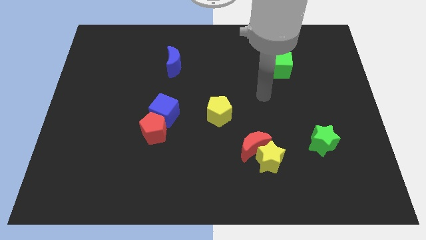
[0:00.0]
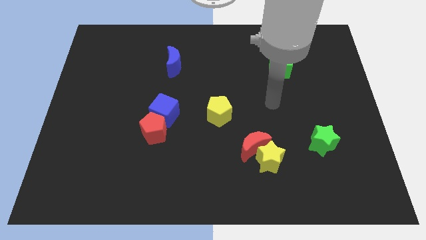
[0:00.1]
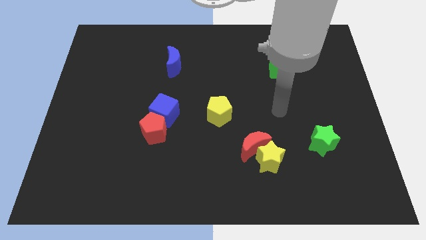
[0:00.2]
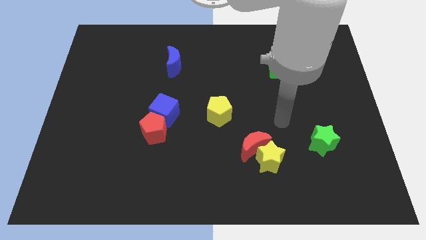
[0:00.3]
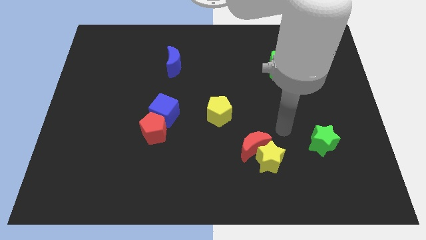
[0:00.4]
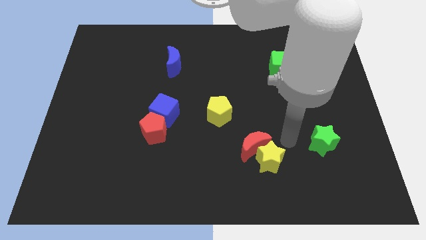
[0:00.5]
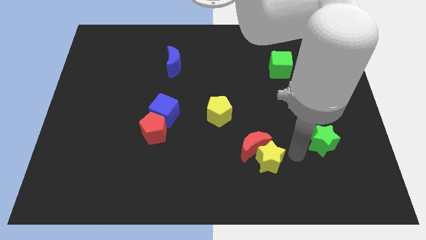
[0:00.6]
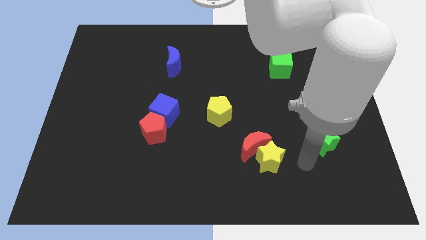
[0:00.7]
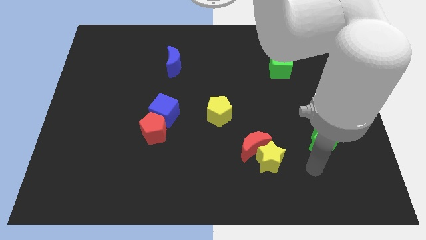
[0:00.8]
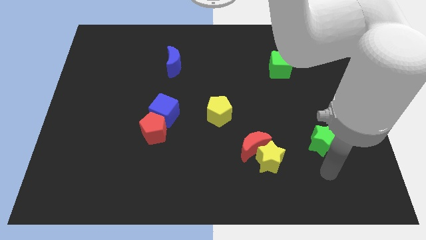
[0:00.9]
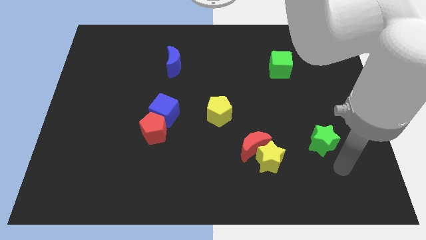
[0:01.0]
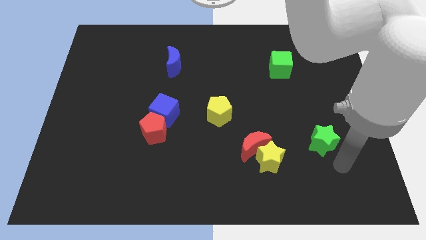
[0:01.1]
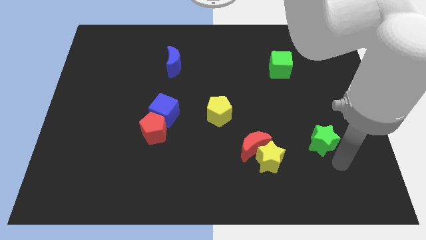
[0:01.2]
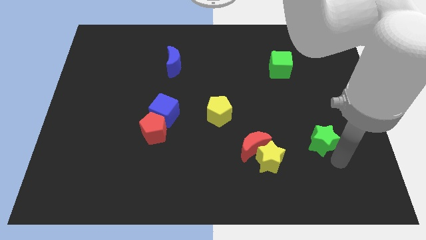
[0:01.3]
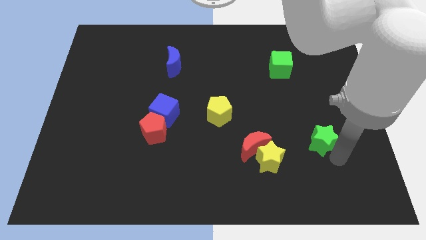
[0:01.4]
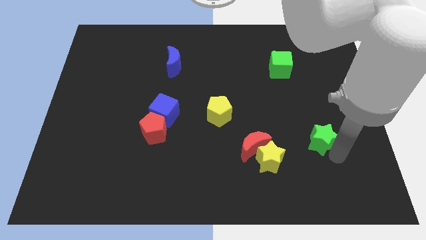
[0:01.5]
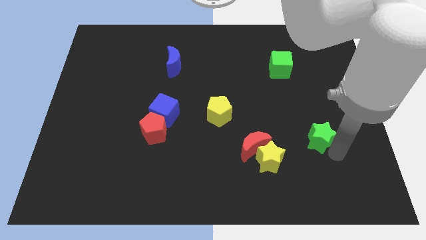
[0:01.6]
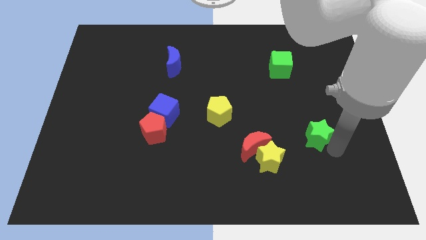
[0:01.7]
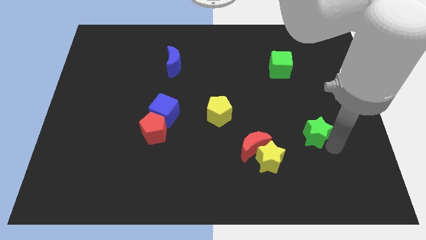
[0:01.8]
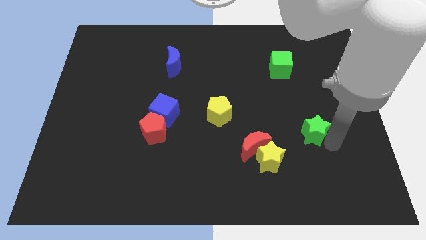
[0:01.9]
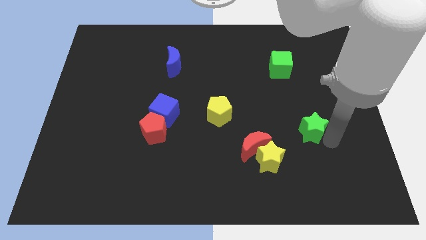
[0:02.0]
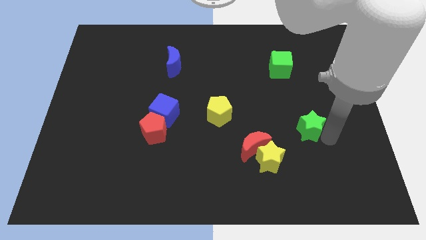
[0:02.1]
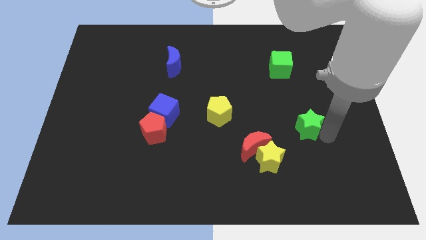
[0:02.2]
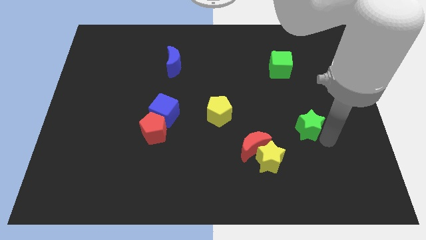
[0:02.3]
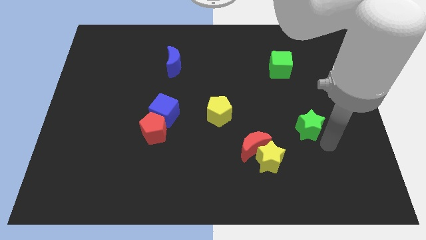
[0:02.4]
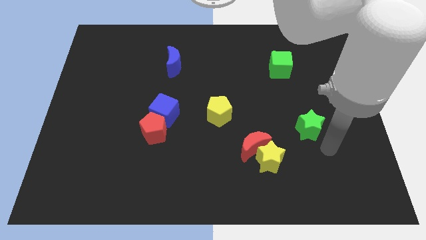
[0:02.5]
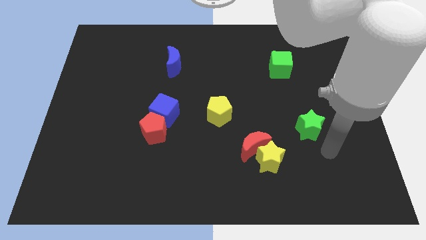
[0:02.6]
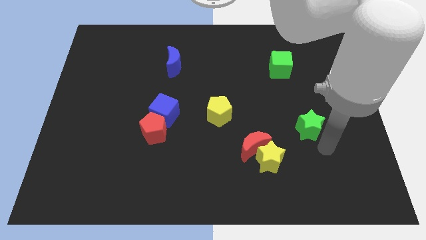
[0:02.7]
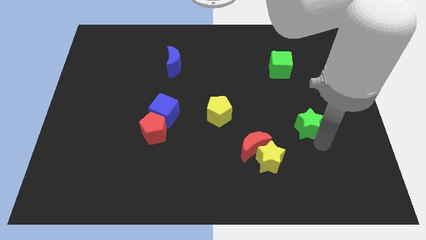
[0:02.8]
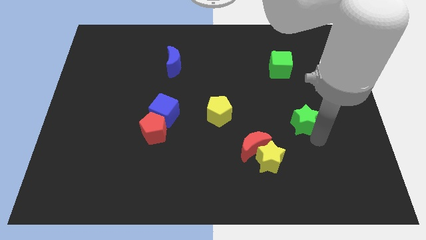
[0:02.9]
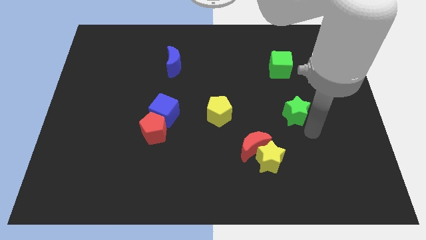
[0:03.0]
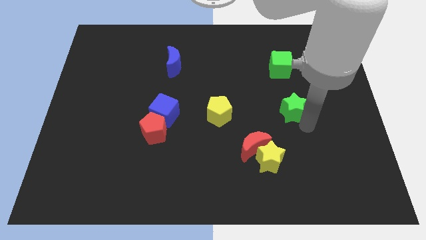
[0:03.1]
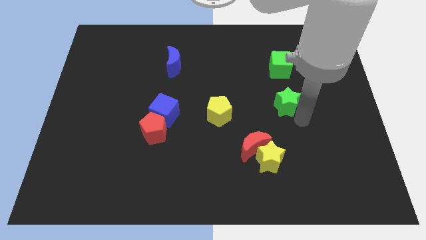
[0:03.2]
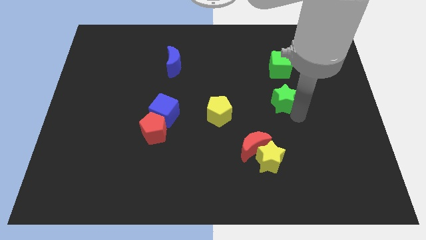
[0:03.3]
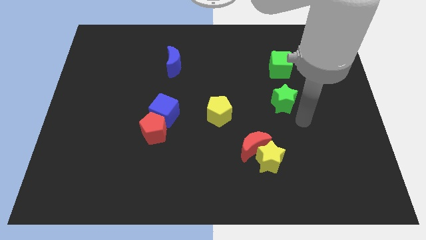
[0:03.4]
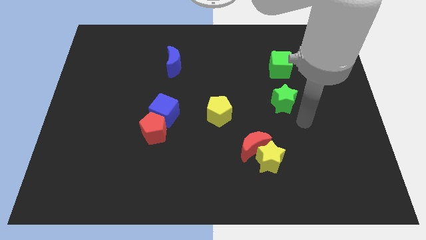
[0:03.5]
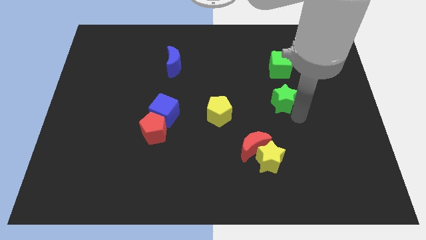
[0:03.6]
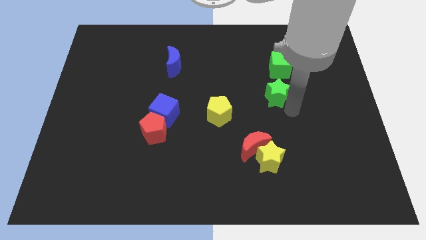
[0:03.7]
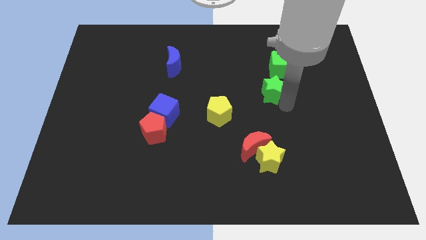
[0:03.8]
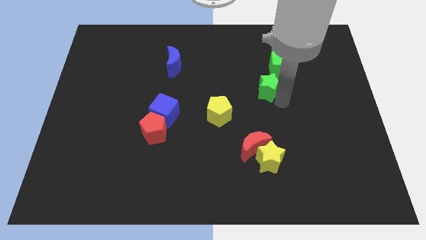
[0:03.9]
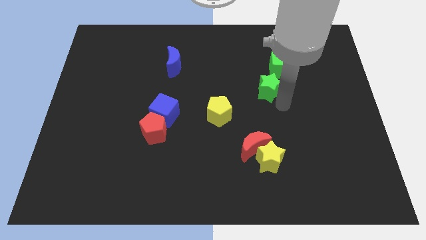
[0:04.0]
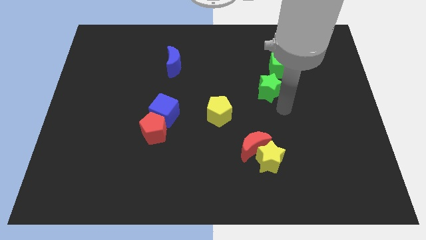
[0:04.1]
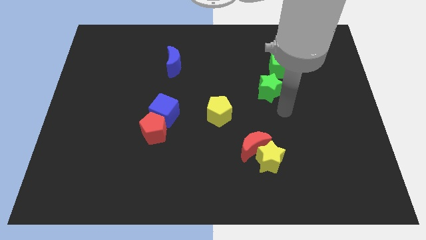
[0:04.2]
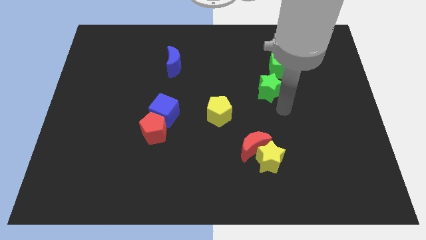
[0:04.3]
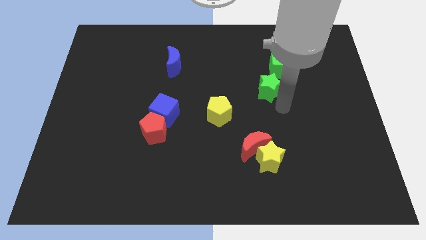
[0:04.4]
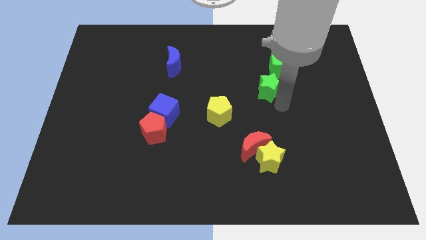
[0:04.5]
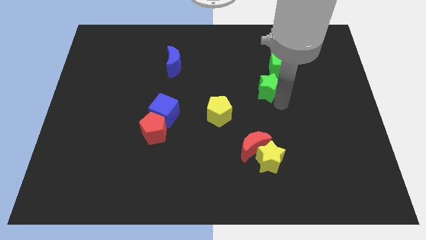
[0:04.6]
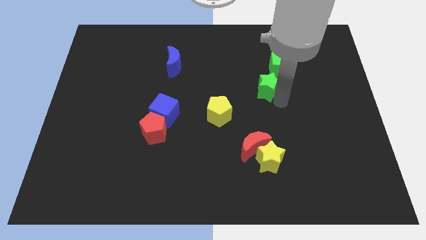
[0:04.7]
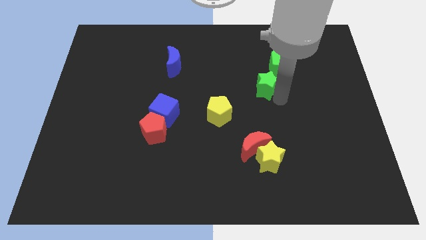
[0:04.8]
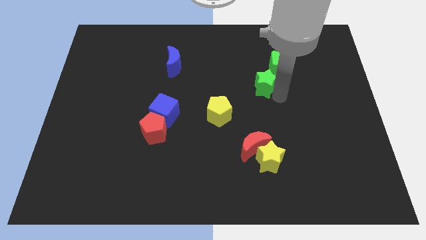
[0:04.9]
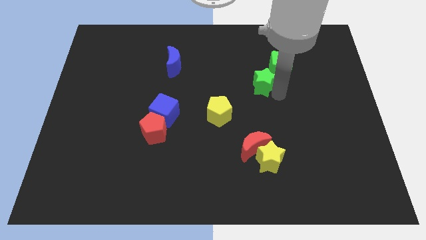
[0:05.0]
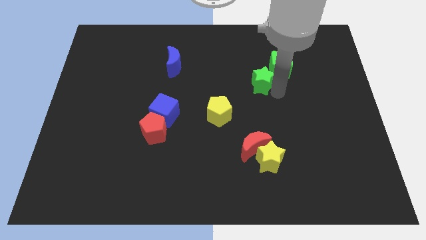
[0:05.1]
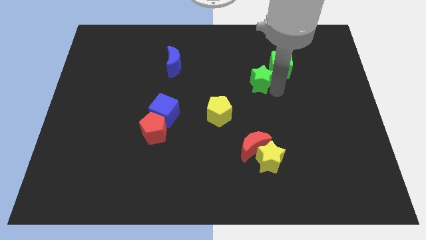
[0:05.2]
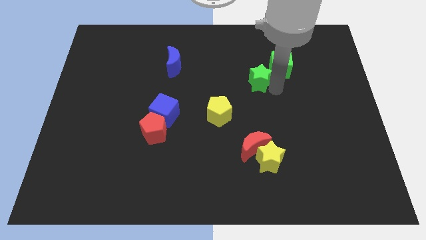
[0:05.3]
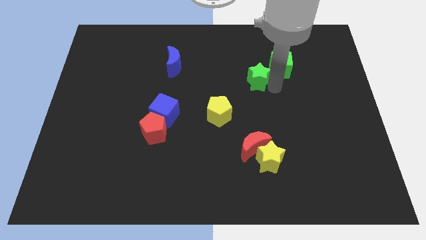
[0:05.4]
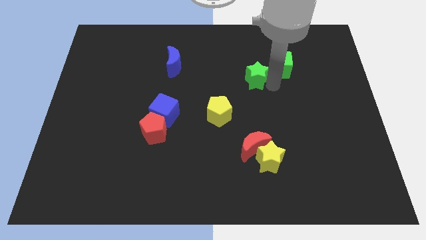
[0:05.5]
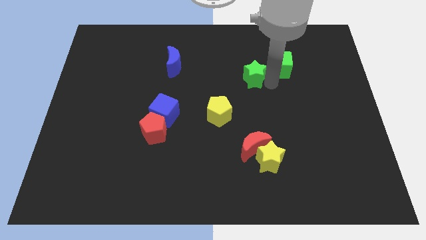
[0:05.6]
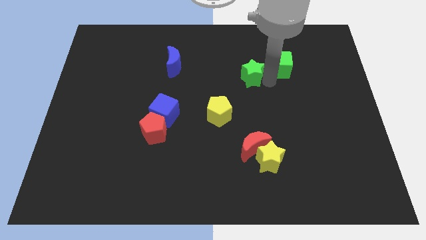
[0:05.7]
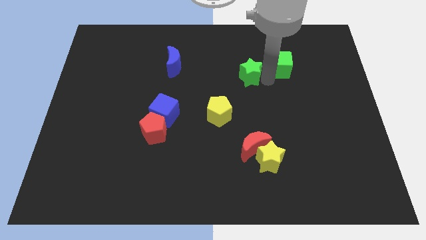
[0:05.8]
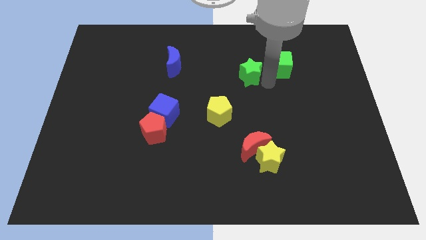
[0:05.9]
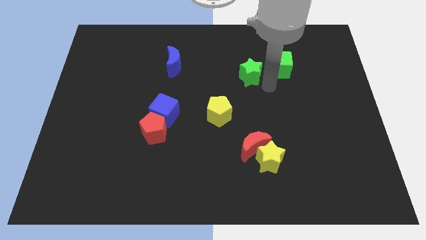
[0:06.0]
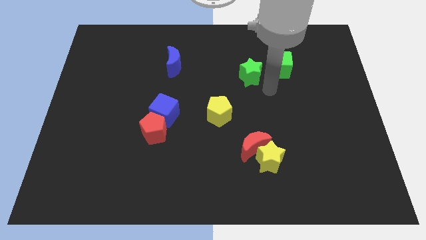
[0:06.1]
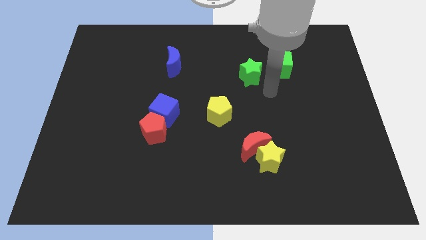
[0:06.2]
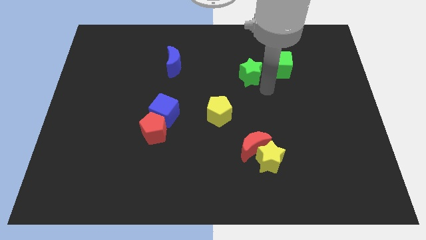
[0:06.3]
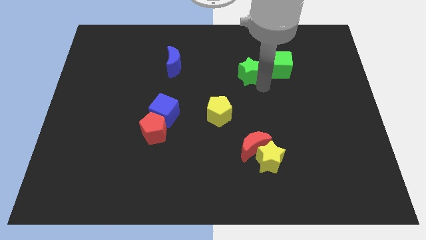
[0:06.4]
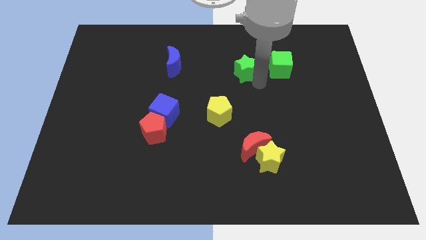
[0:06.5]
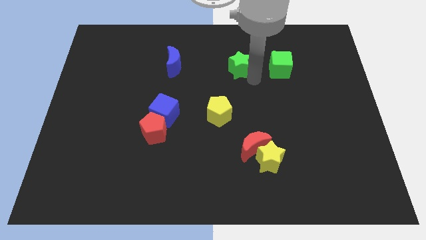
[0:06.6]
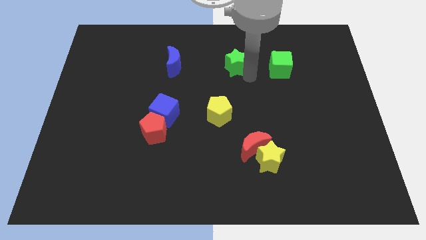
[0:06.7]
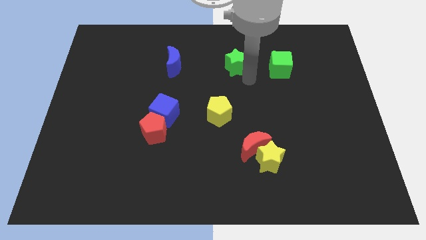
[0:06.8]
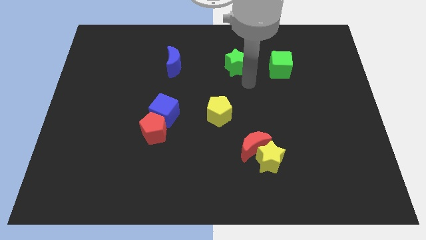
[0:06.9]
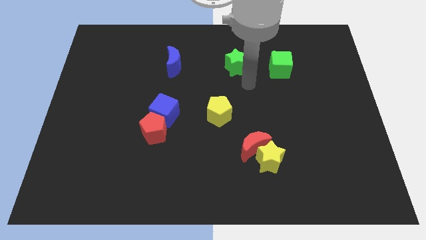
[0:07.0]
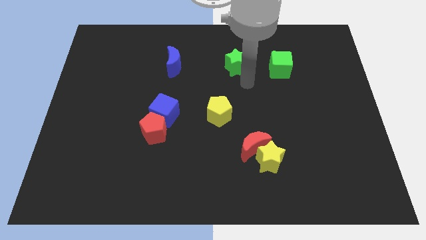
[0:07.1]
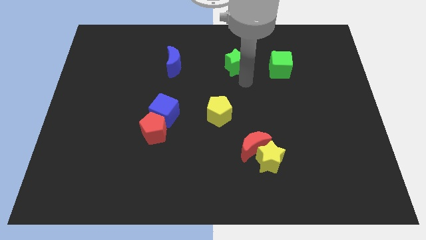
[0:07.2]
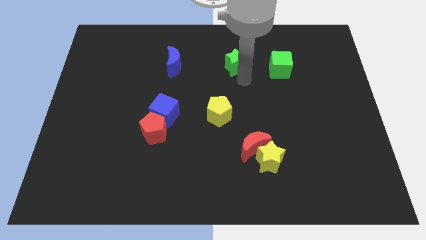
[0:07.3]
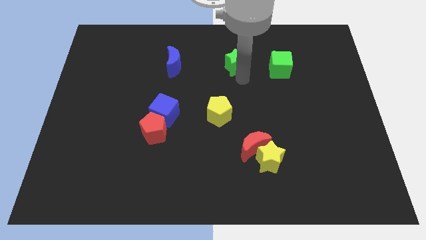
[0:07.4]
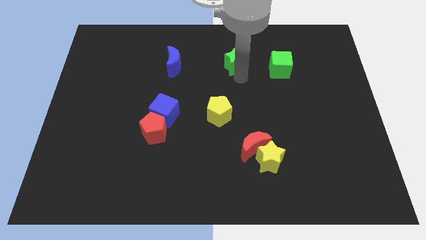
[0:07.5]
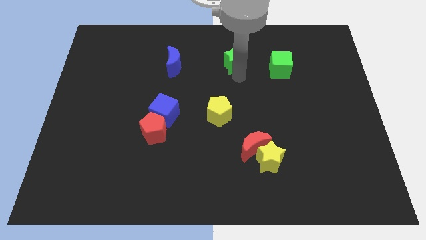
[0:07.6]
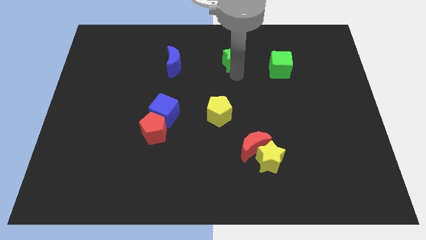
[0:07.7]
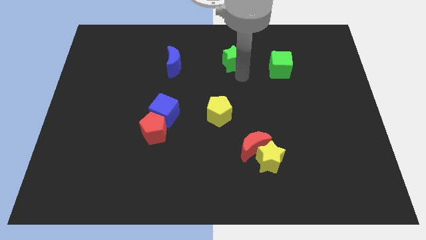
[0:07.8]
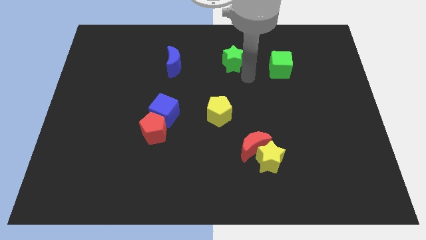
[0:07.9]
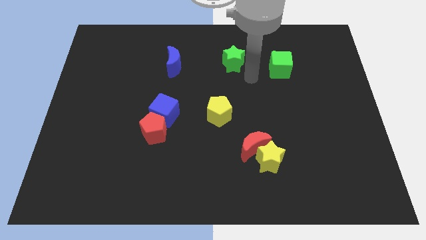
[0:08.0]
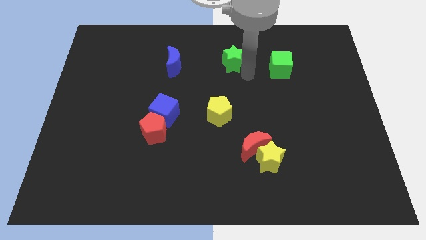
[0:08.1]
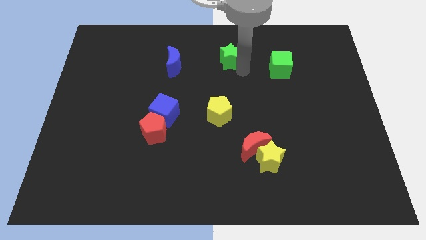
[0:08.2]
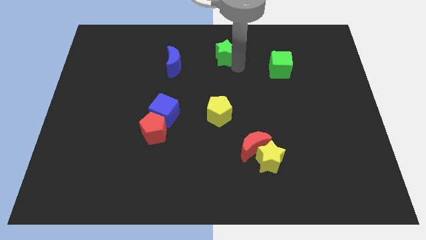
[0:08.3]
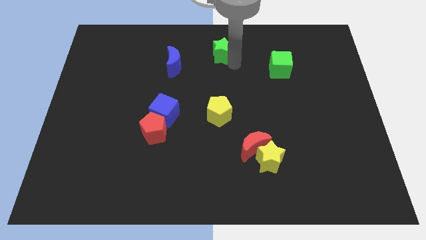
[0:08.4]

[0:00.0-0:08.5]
put the green star to the top side
